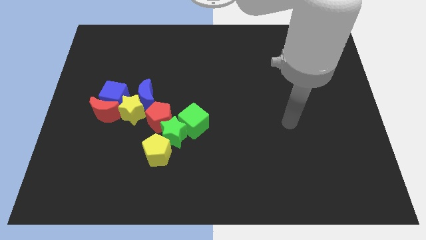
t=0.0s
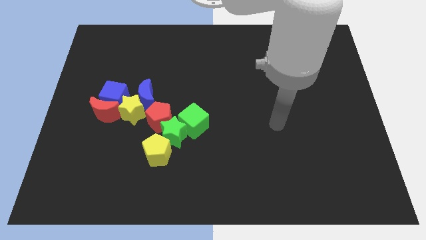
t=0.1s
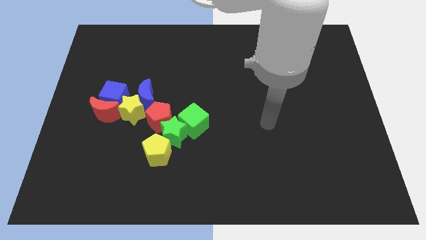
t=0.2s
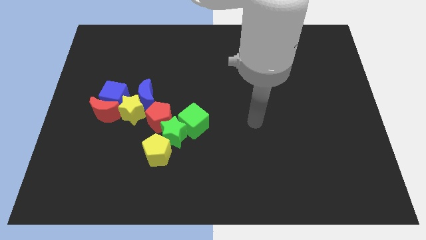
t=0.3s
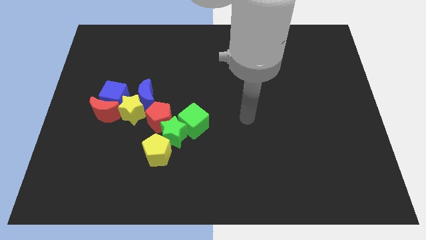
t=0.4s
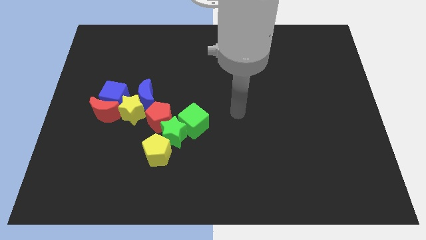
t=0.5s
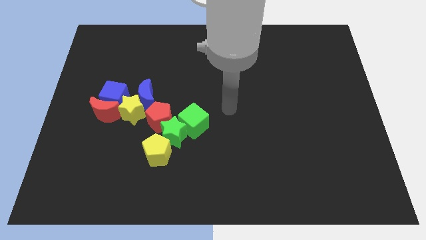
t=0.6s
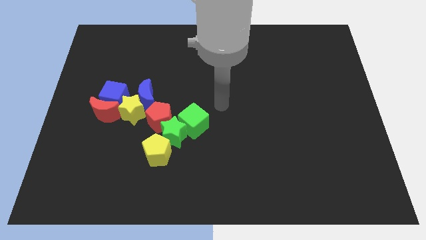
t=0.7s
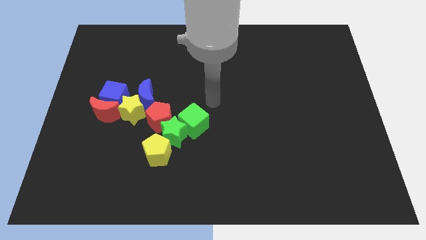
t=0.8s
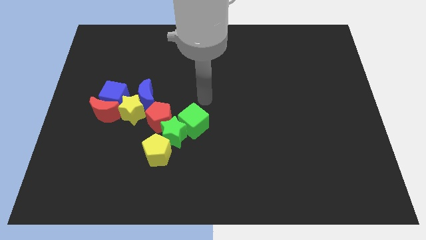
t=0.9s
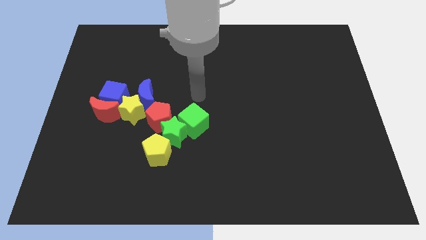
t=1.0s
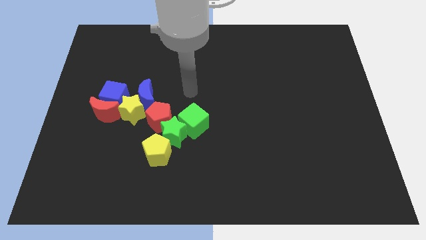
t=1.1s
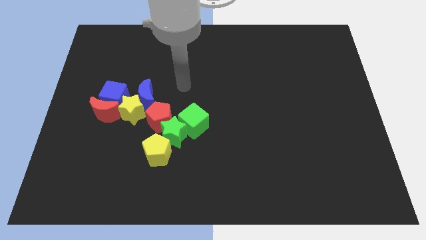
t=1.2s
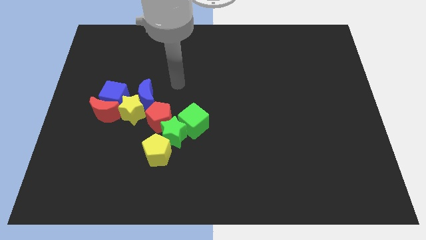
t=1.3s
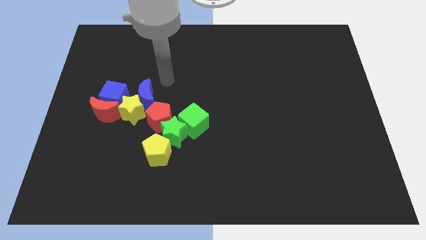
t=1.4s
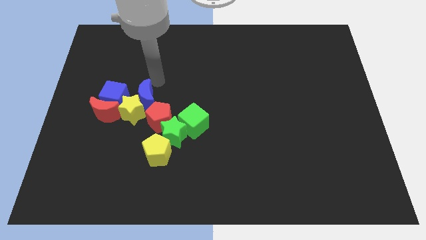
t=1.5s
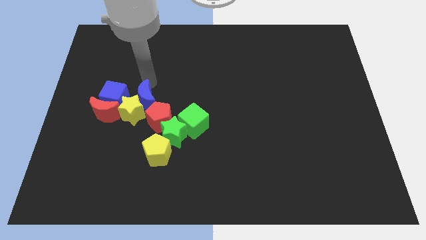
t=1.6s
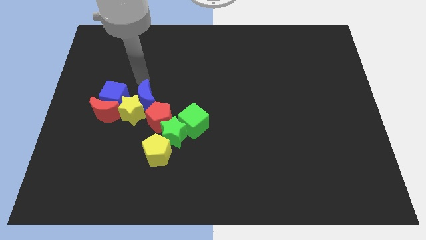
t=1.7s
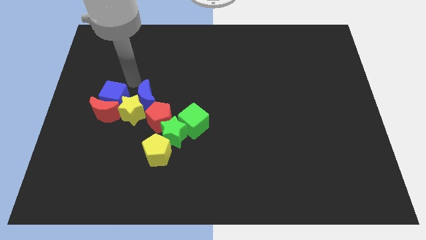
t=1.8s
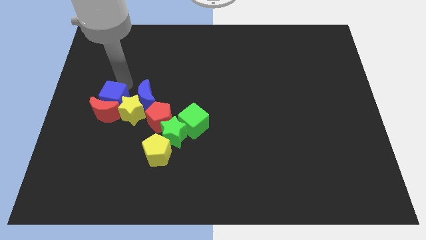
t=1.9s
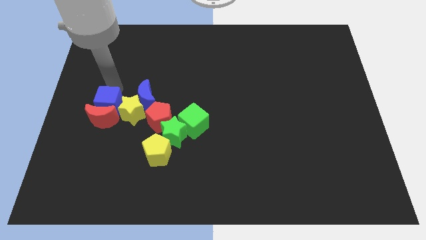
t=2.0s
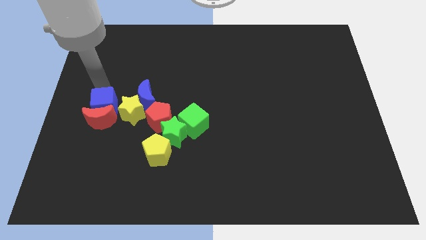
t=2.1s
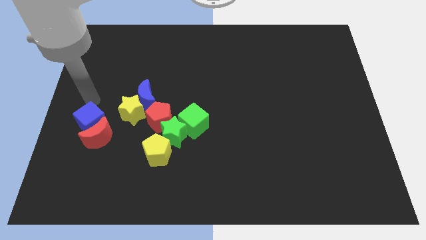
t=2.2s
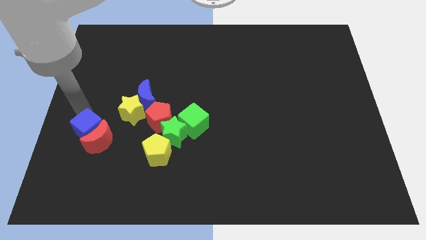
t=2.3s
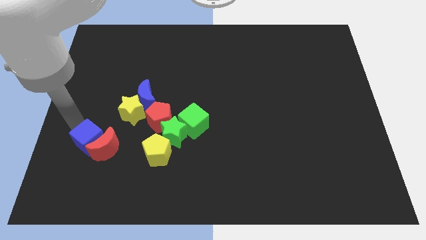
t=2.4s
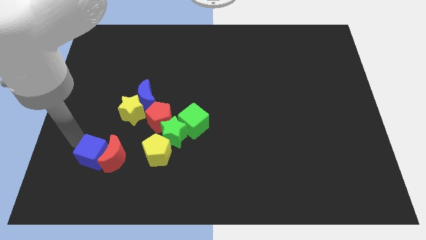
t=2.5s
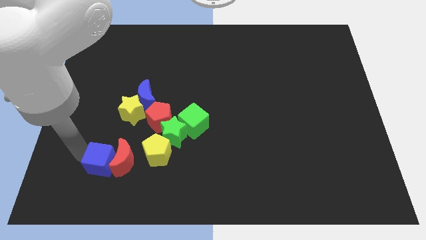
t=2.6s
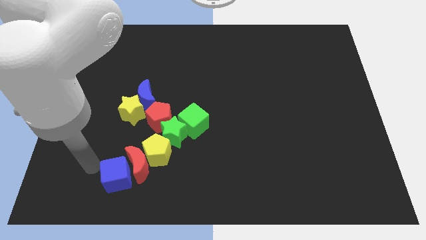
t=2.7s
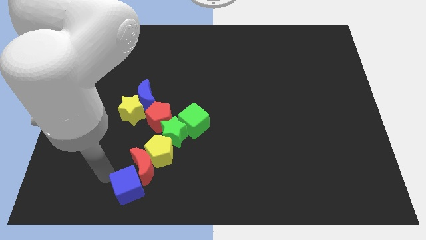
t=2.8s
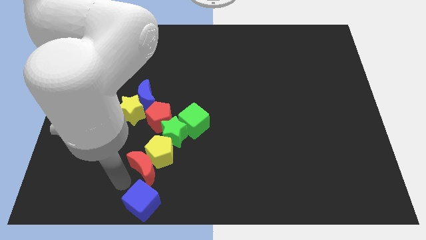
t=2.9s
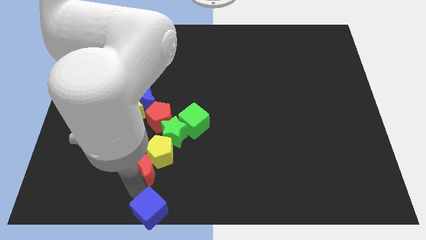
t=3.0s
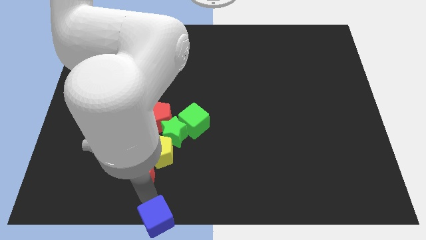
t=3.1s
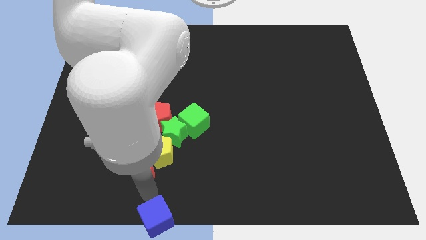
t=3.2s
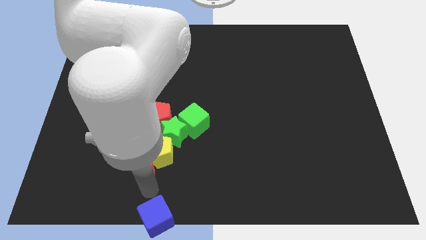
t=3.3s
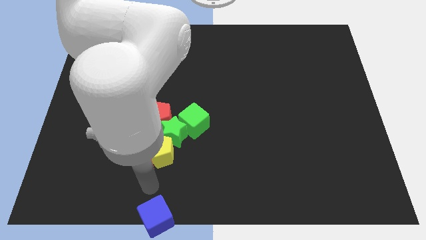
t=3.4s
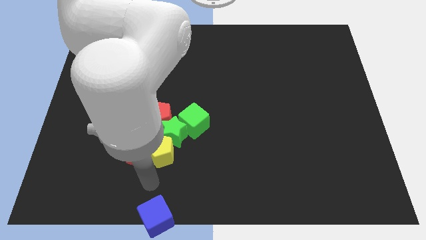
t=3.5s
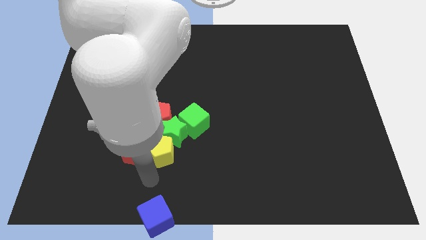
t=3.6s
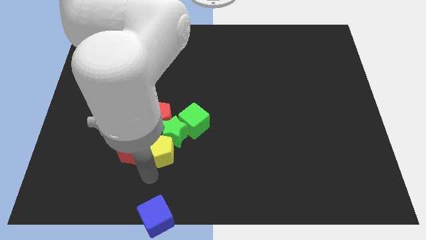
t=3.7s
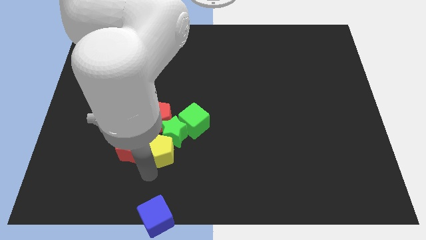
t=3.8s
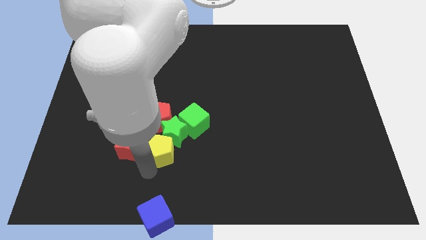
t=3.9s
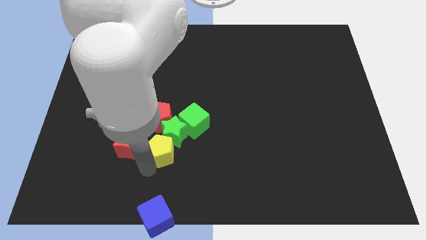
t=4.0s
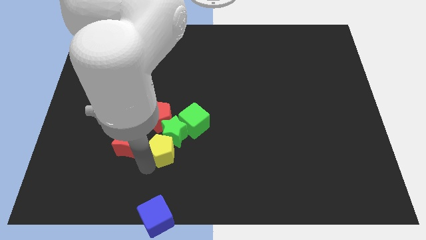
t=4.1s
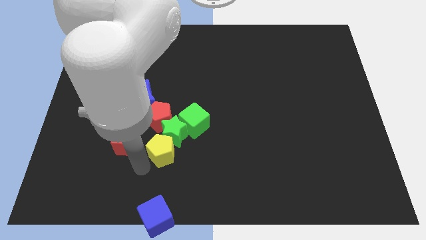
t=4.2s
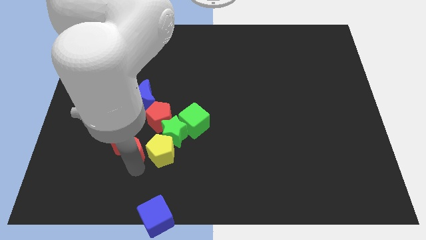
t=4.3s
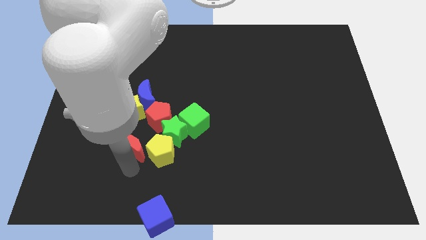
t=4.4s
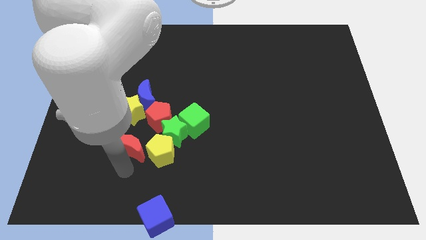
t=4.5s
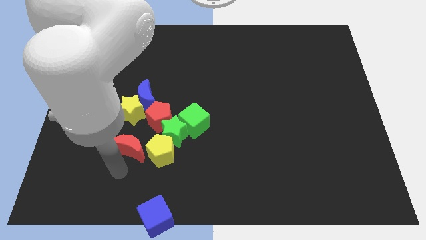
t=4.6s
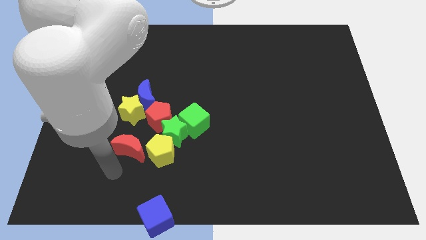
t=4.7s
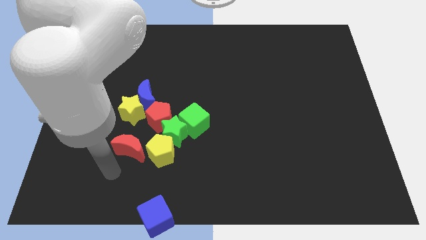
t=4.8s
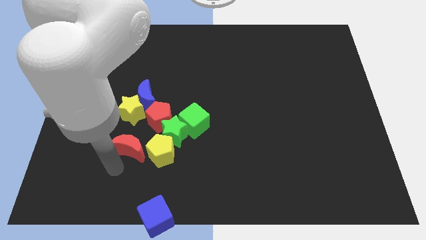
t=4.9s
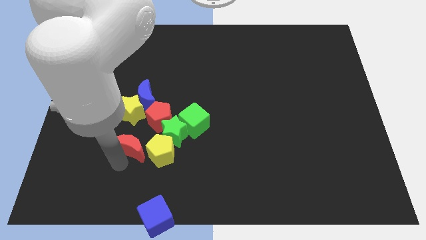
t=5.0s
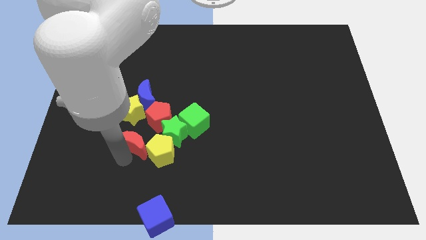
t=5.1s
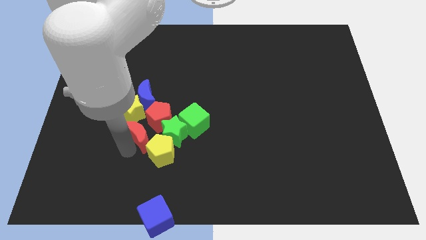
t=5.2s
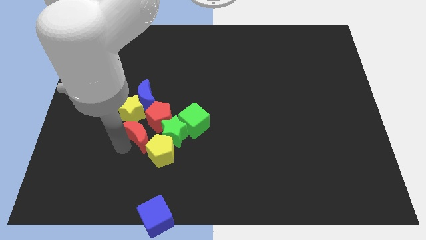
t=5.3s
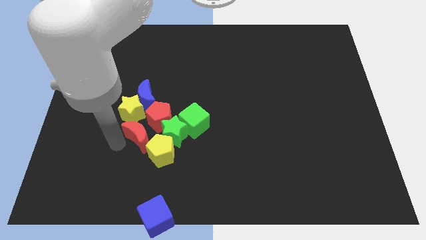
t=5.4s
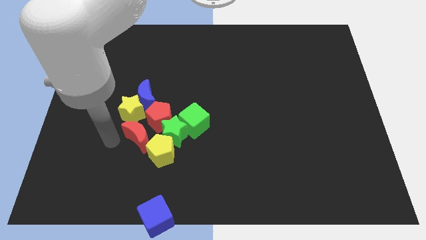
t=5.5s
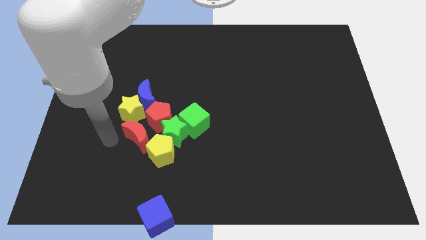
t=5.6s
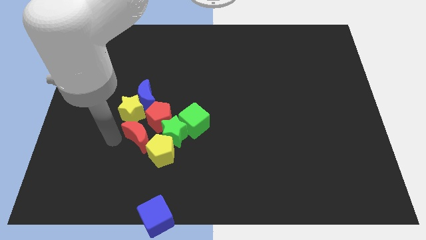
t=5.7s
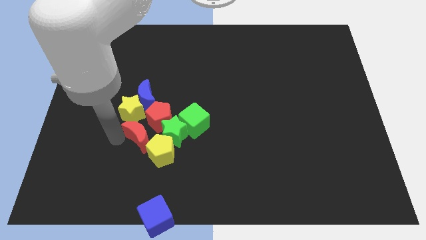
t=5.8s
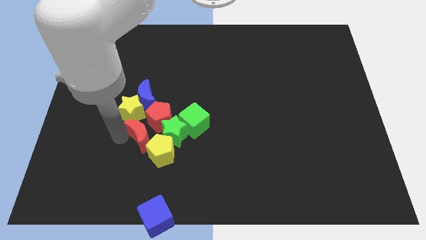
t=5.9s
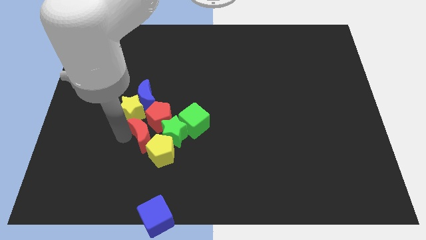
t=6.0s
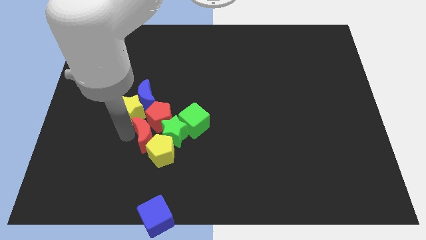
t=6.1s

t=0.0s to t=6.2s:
move the red moon towards the green star

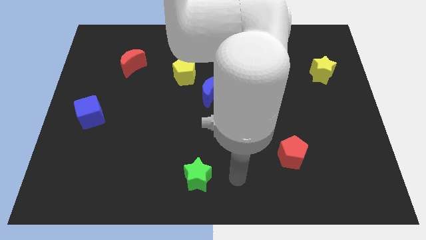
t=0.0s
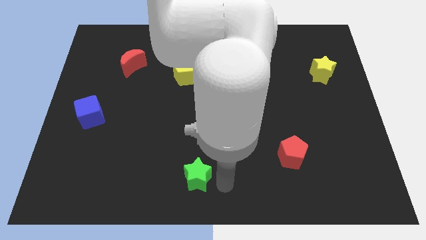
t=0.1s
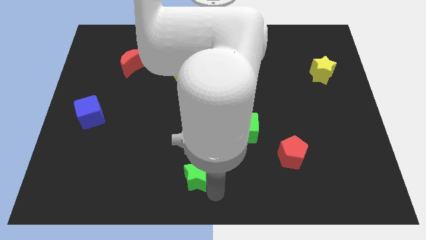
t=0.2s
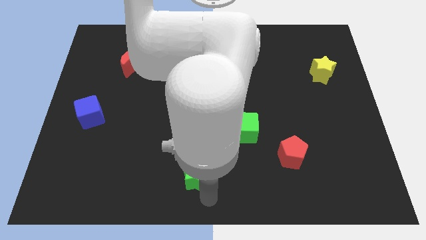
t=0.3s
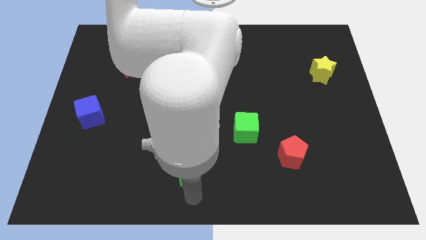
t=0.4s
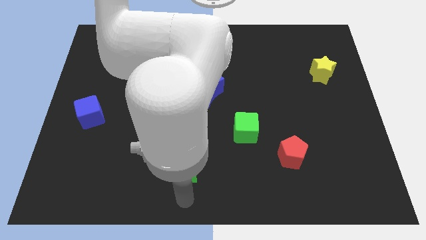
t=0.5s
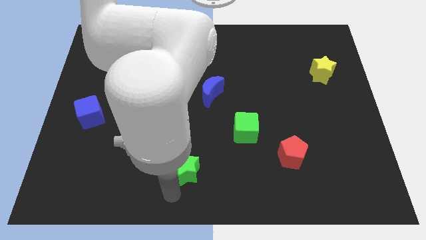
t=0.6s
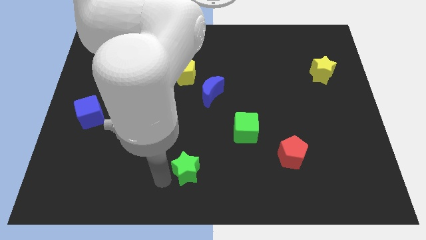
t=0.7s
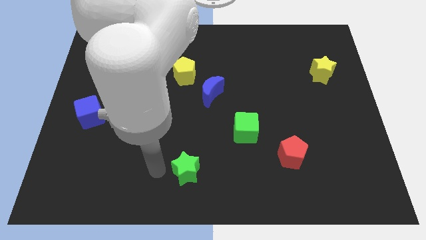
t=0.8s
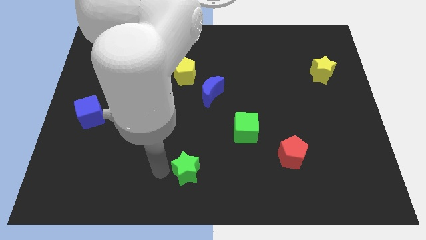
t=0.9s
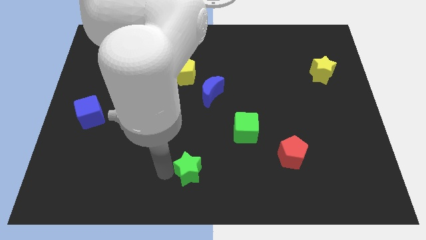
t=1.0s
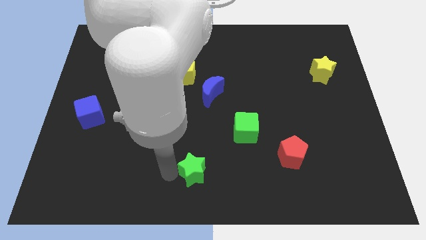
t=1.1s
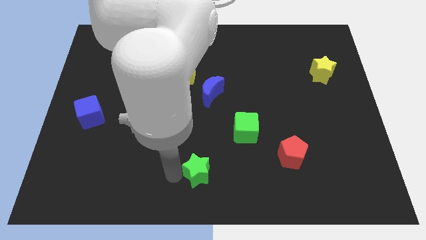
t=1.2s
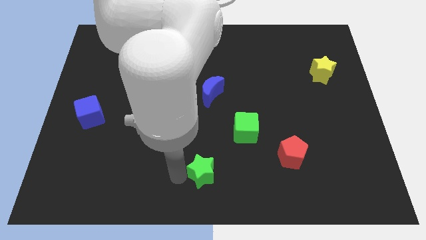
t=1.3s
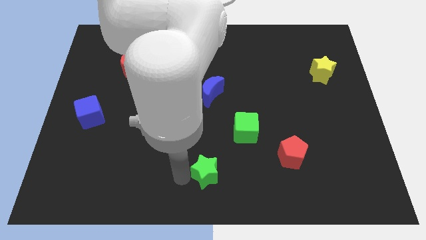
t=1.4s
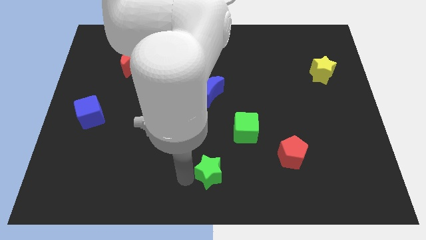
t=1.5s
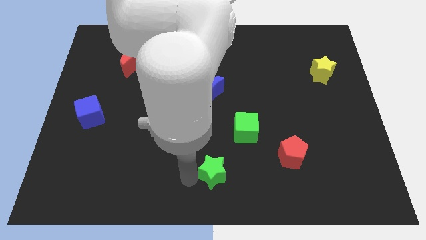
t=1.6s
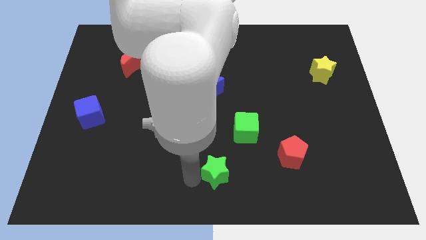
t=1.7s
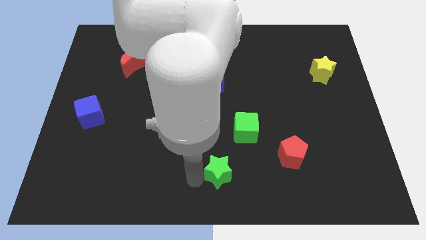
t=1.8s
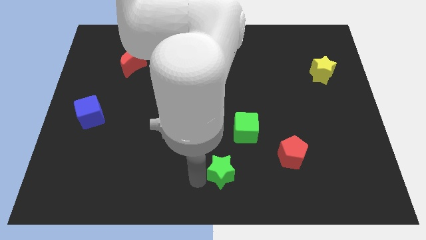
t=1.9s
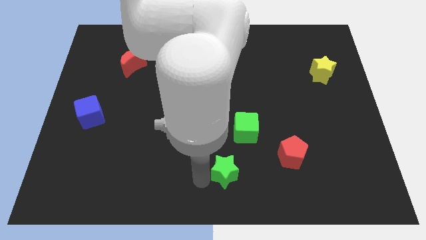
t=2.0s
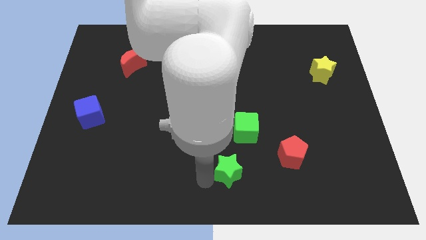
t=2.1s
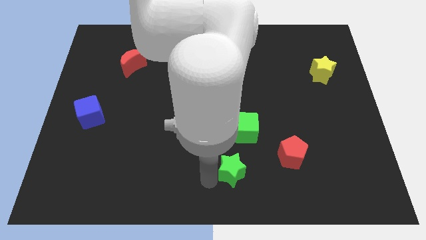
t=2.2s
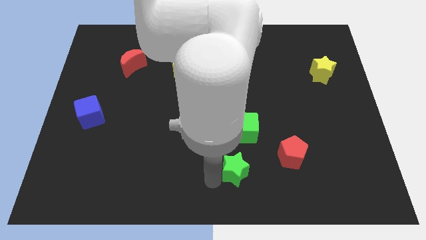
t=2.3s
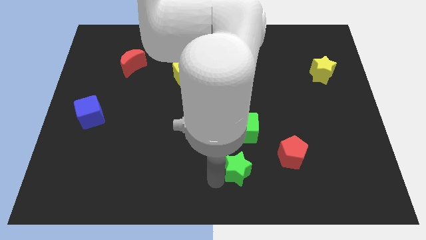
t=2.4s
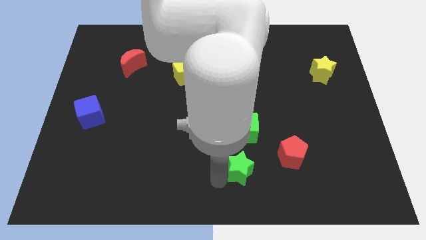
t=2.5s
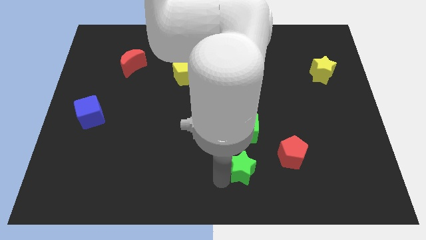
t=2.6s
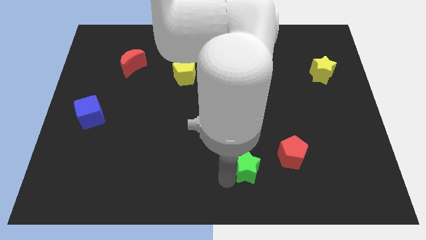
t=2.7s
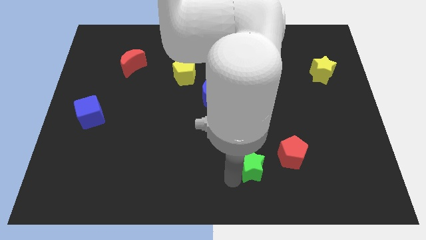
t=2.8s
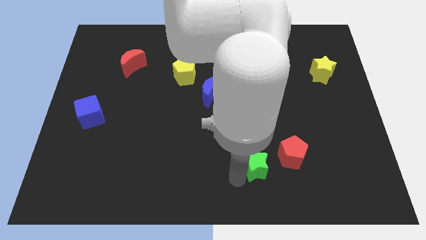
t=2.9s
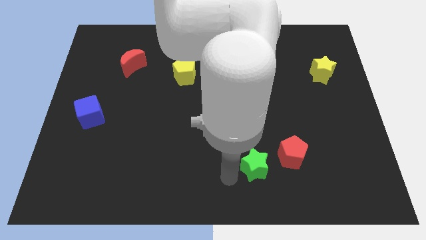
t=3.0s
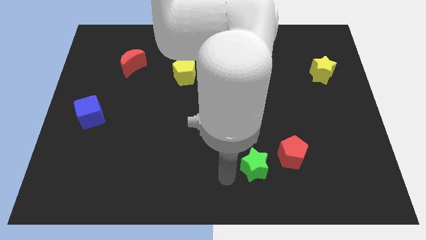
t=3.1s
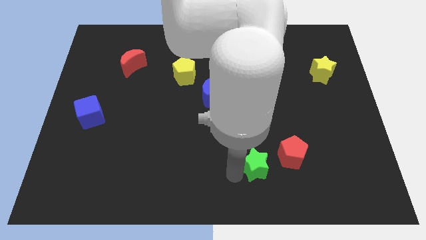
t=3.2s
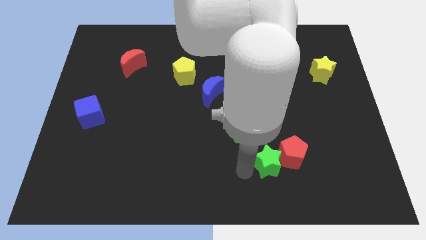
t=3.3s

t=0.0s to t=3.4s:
push the green star next to the red pentagon
